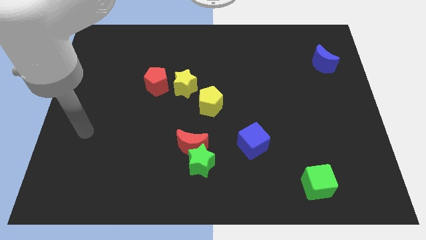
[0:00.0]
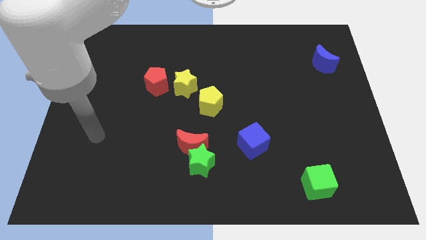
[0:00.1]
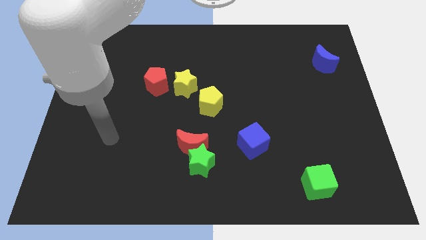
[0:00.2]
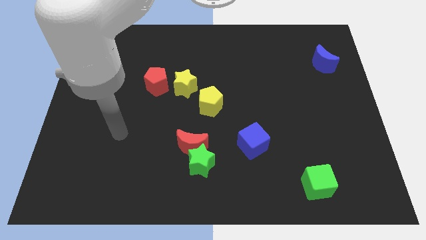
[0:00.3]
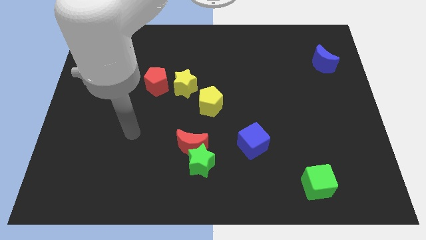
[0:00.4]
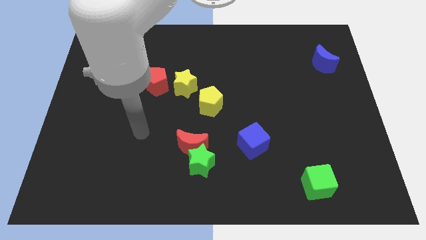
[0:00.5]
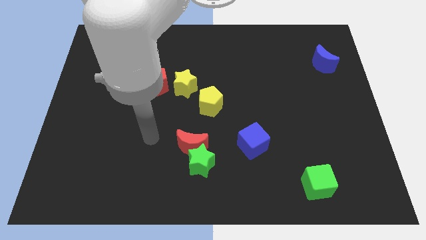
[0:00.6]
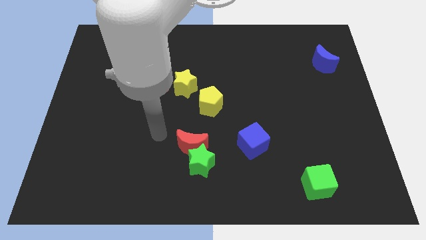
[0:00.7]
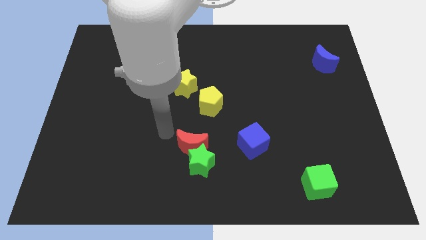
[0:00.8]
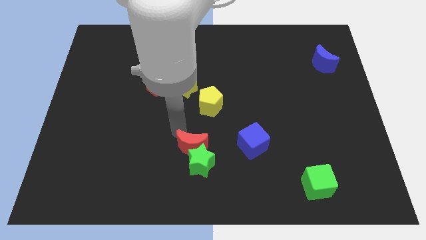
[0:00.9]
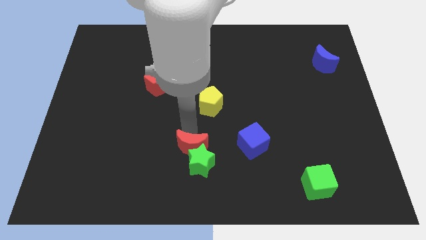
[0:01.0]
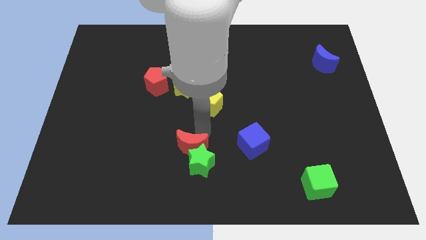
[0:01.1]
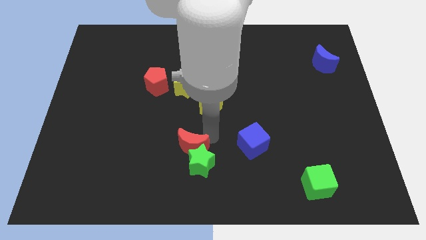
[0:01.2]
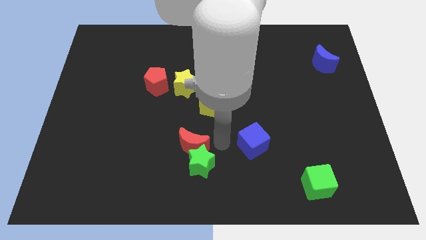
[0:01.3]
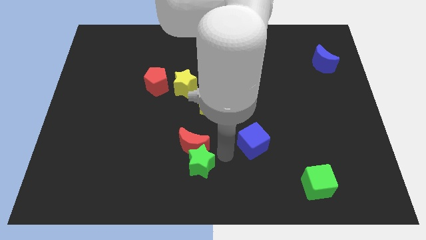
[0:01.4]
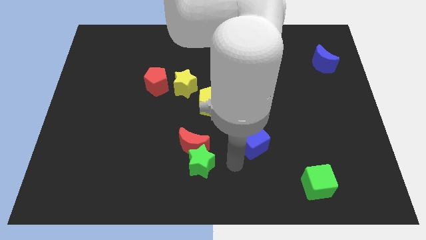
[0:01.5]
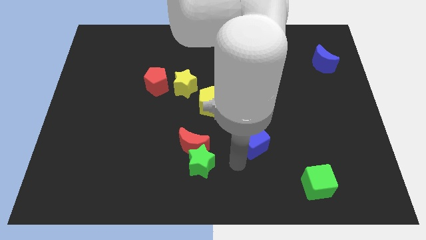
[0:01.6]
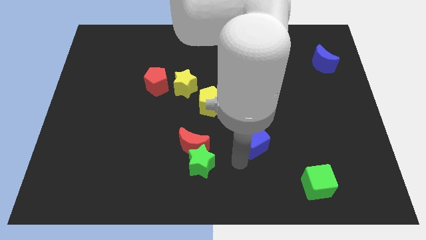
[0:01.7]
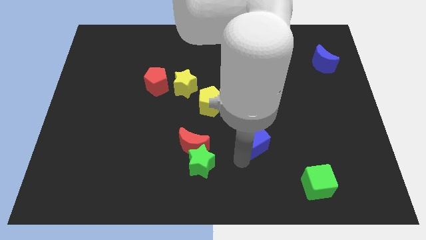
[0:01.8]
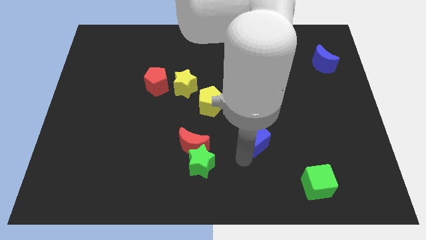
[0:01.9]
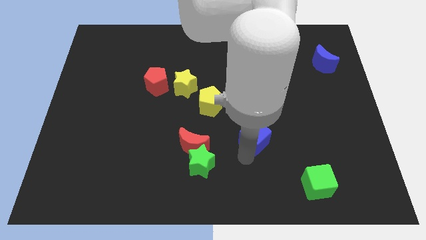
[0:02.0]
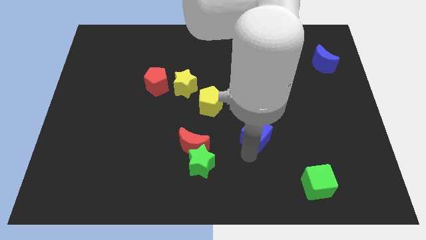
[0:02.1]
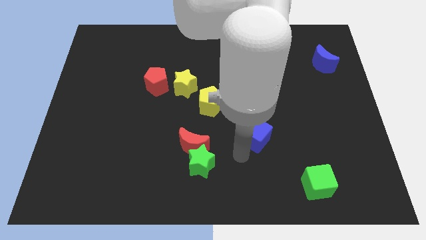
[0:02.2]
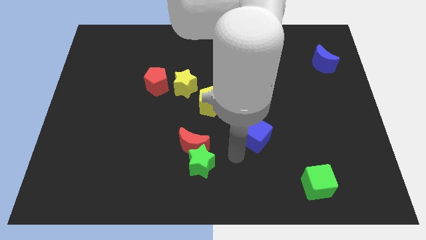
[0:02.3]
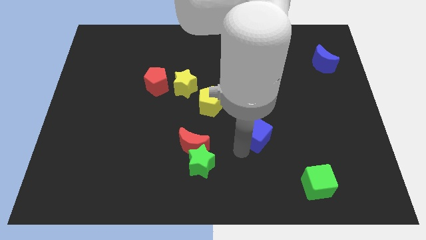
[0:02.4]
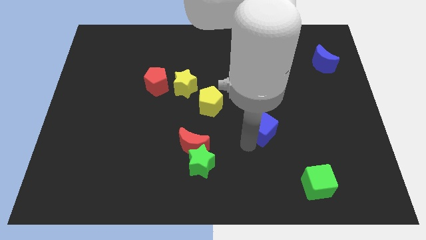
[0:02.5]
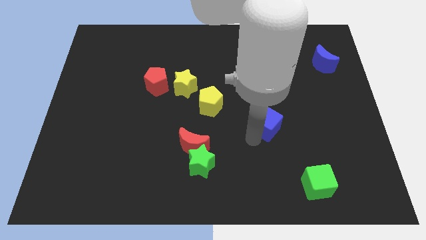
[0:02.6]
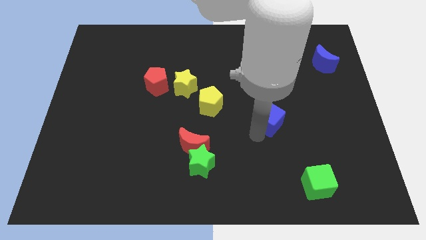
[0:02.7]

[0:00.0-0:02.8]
slightly move the blue cube up and to the right

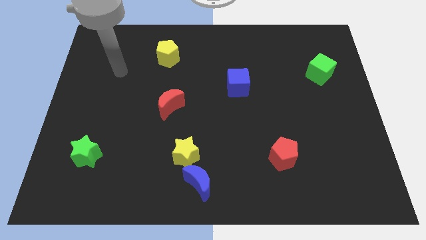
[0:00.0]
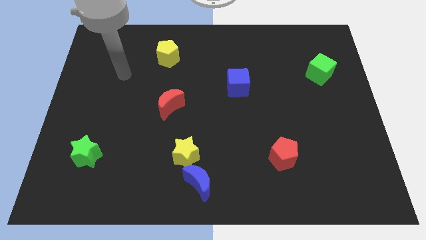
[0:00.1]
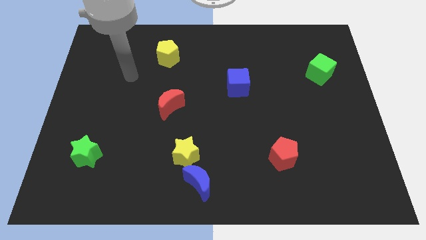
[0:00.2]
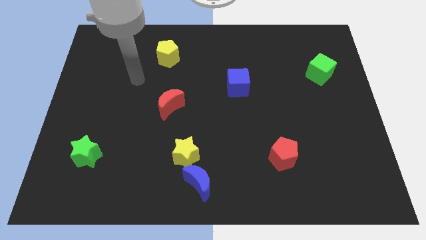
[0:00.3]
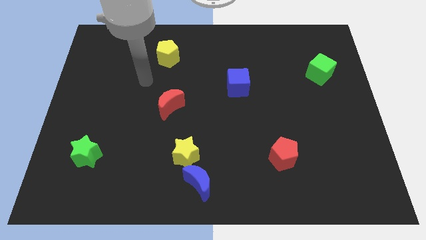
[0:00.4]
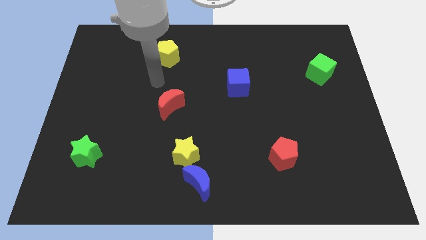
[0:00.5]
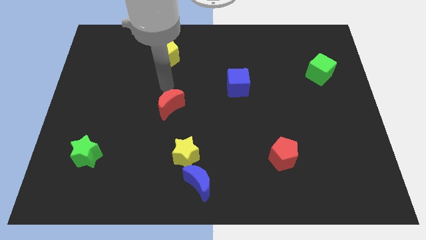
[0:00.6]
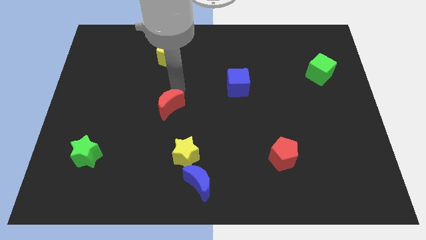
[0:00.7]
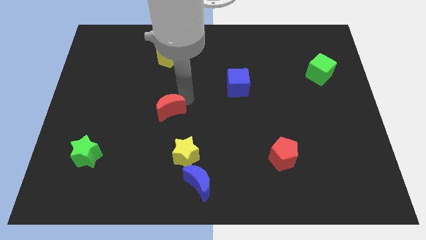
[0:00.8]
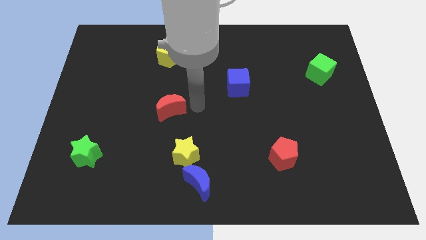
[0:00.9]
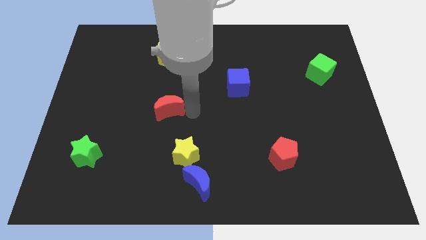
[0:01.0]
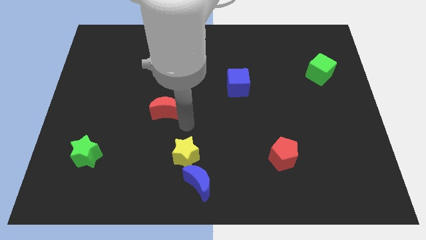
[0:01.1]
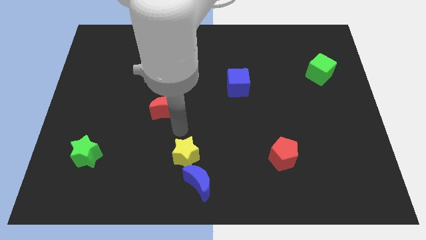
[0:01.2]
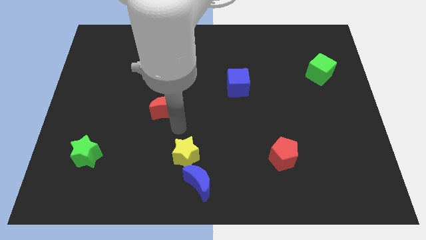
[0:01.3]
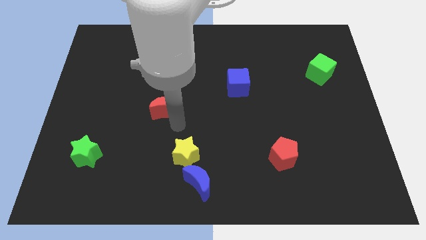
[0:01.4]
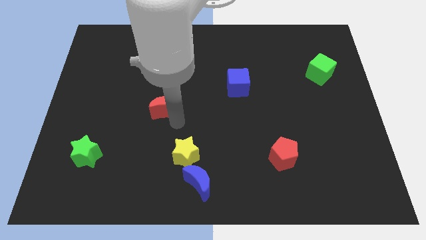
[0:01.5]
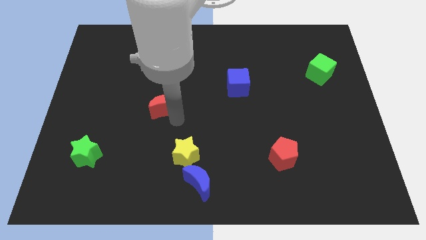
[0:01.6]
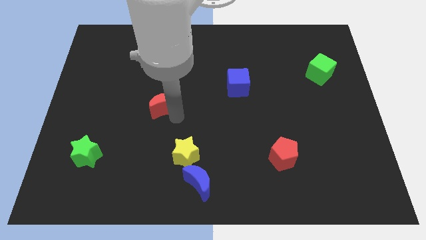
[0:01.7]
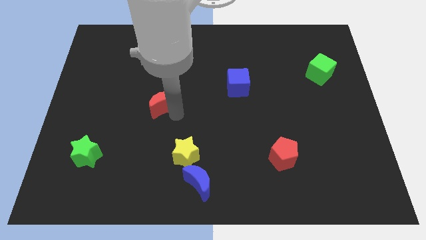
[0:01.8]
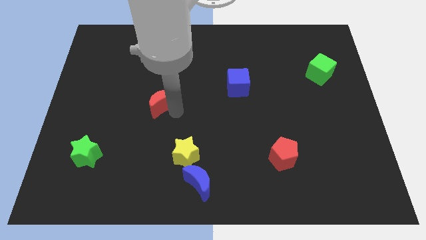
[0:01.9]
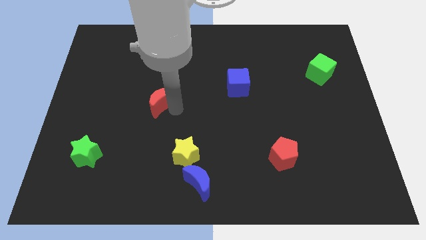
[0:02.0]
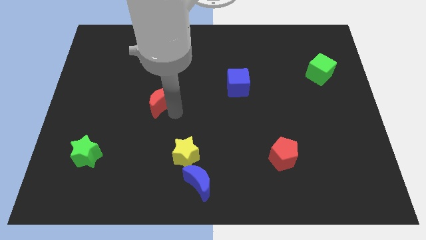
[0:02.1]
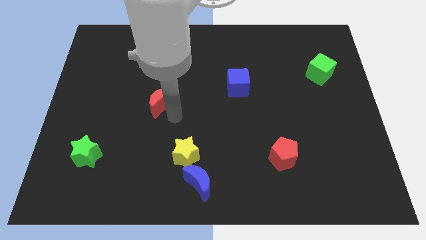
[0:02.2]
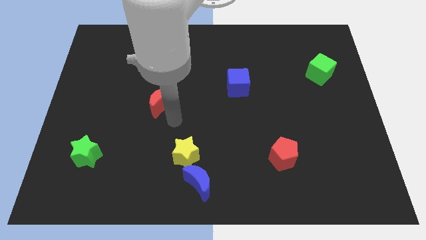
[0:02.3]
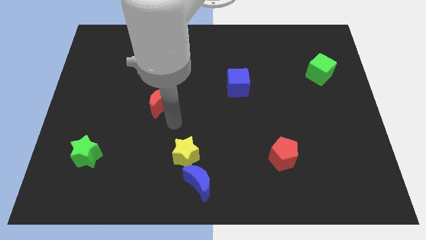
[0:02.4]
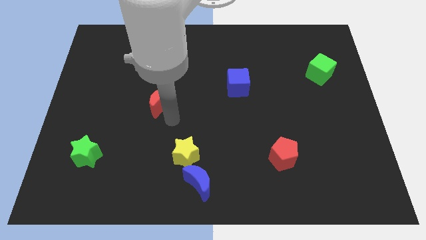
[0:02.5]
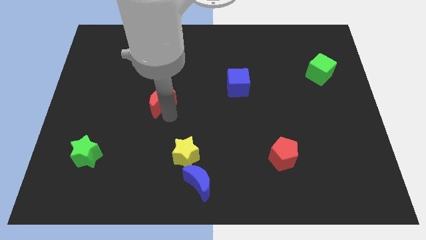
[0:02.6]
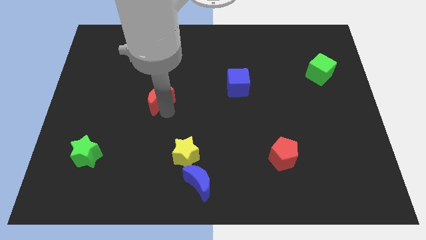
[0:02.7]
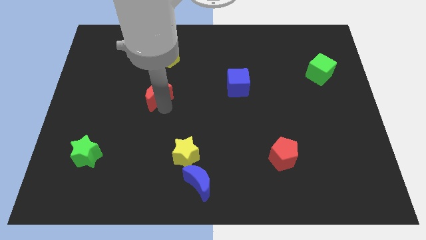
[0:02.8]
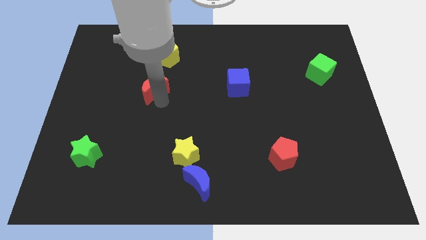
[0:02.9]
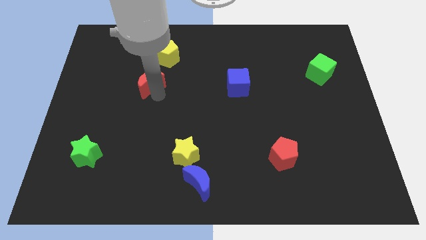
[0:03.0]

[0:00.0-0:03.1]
slightly slide the red moon up and to the left diagonally

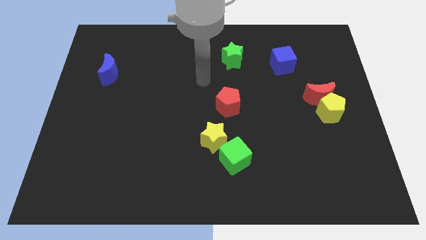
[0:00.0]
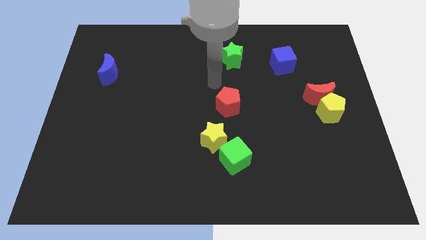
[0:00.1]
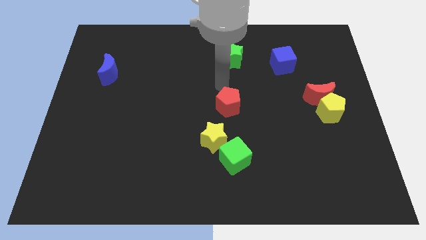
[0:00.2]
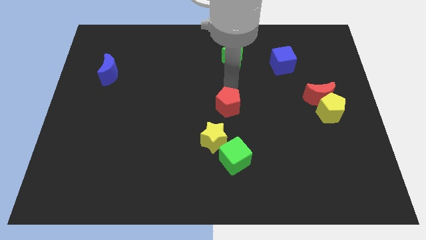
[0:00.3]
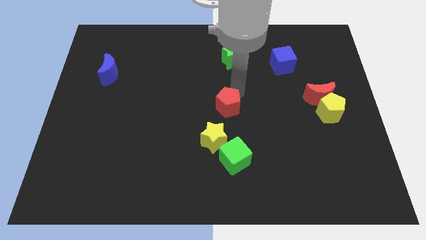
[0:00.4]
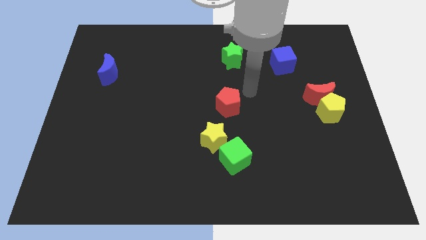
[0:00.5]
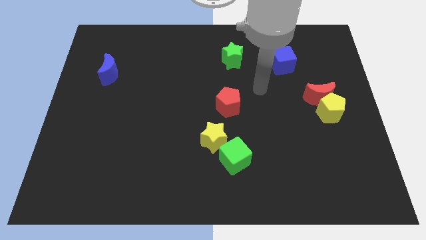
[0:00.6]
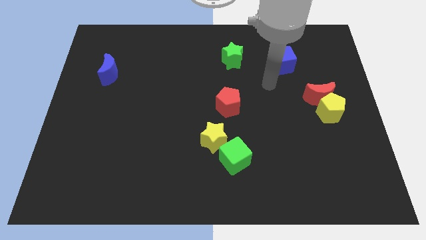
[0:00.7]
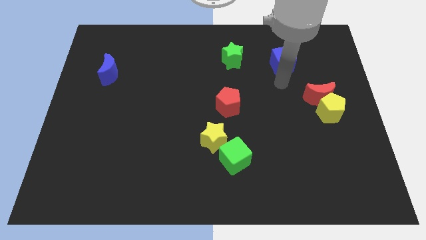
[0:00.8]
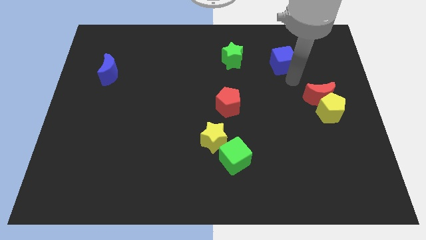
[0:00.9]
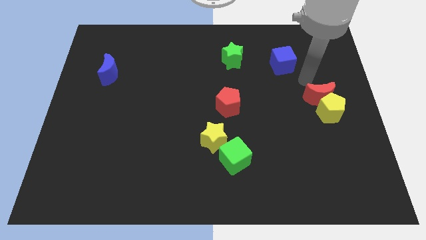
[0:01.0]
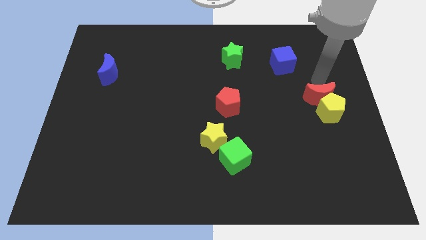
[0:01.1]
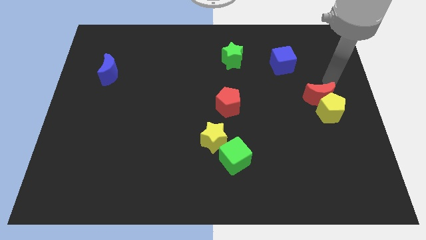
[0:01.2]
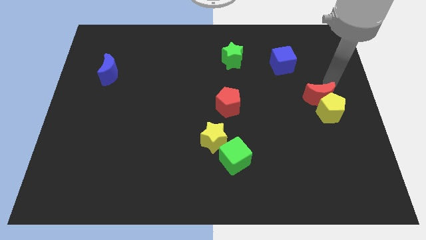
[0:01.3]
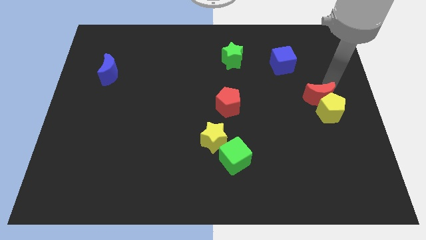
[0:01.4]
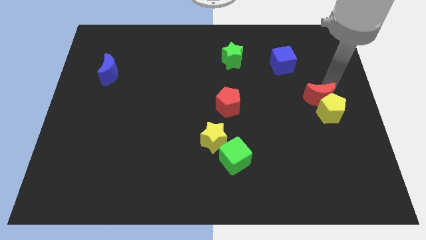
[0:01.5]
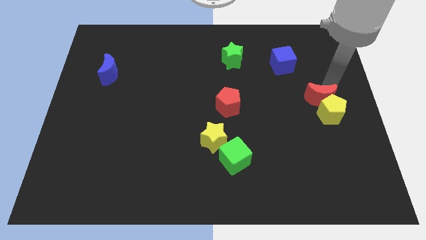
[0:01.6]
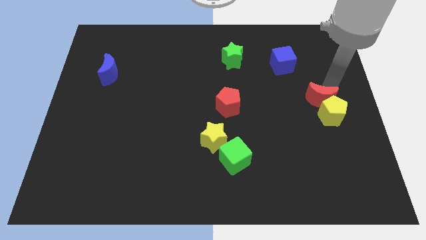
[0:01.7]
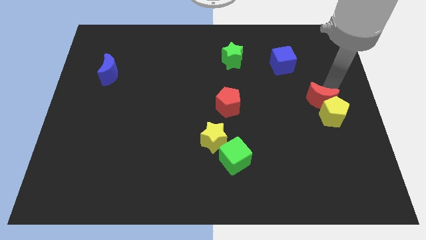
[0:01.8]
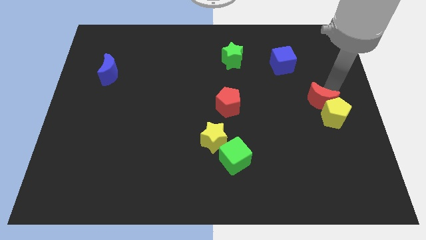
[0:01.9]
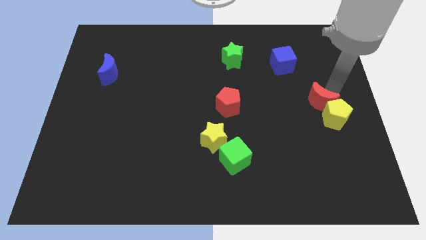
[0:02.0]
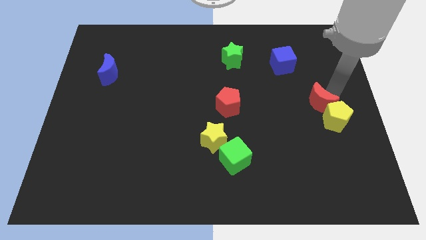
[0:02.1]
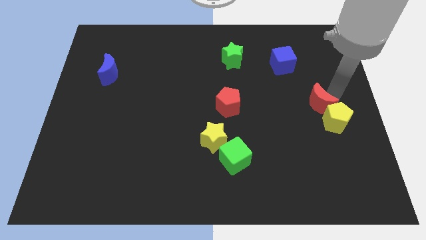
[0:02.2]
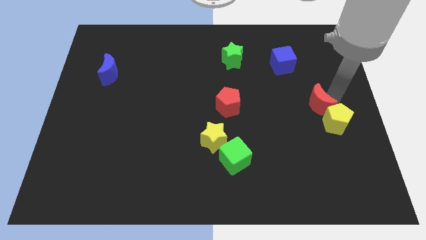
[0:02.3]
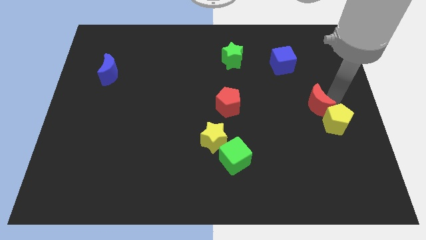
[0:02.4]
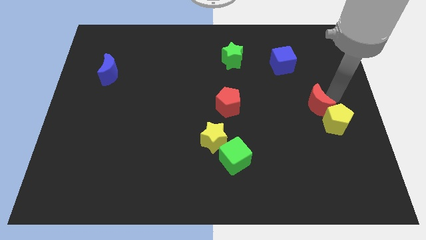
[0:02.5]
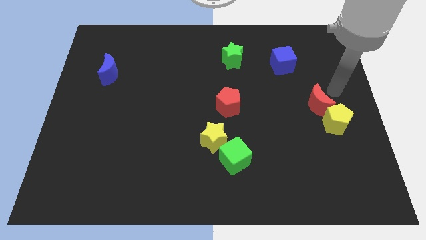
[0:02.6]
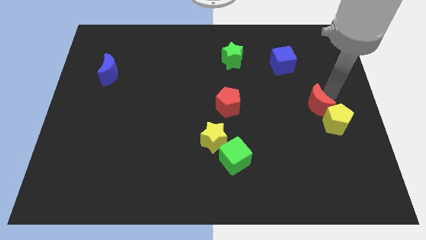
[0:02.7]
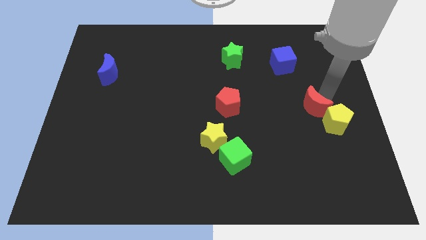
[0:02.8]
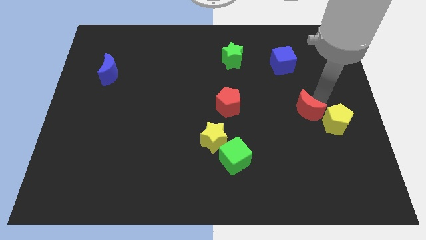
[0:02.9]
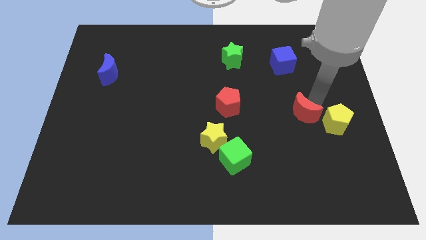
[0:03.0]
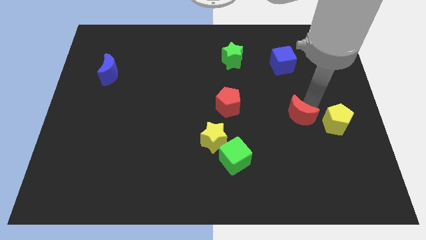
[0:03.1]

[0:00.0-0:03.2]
push the red moon down and to the left diagonally a little bit
